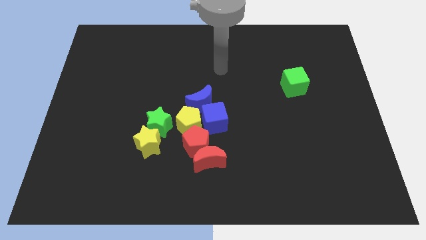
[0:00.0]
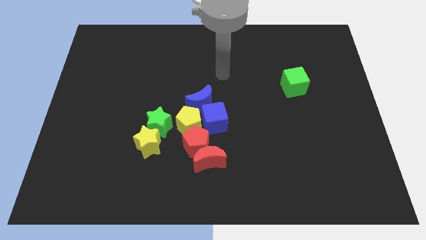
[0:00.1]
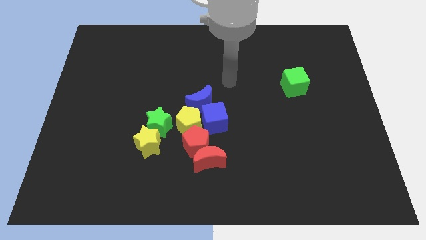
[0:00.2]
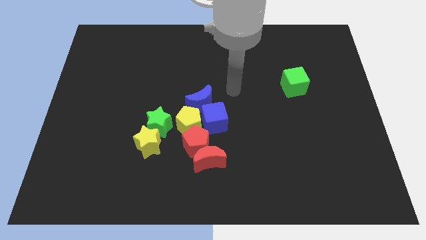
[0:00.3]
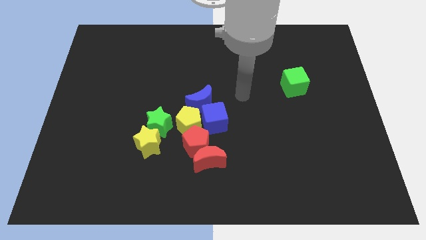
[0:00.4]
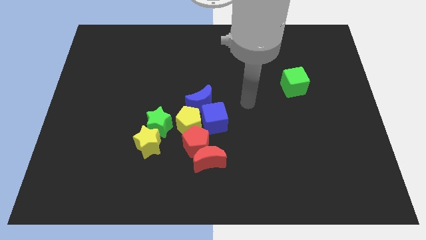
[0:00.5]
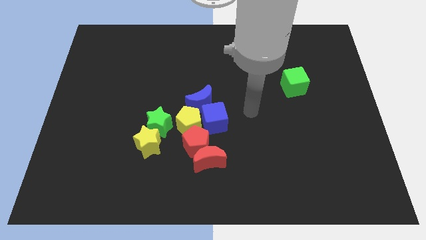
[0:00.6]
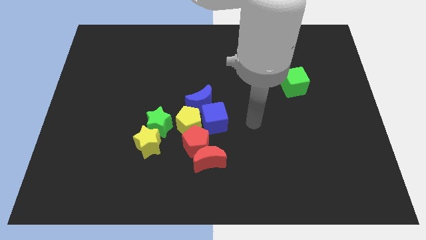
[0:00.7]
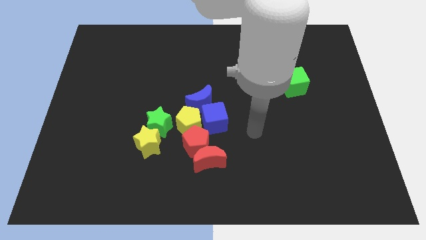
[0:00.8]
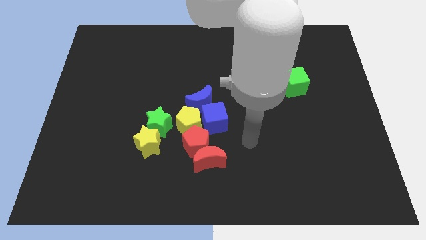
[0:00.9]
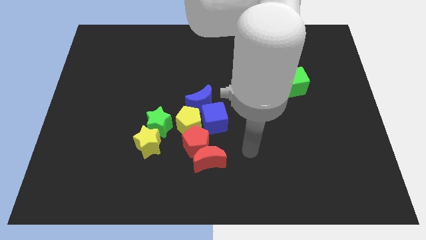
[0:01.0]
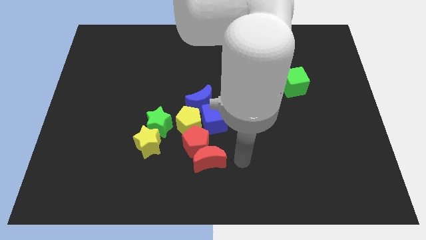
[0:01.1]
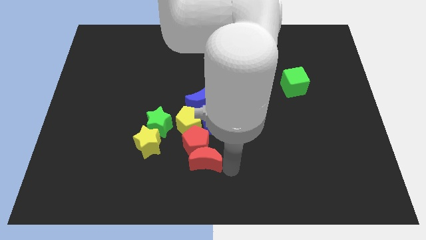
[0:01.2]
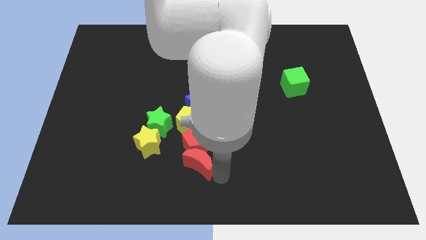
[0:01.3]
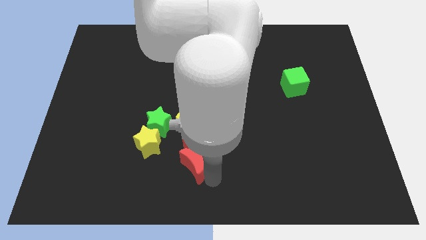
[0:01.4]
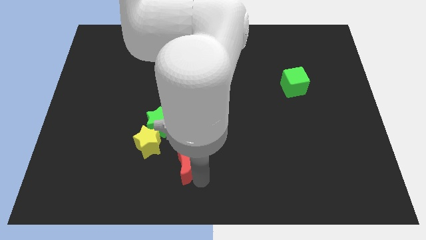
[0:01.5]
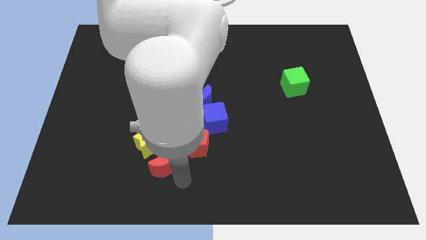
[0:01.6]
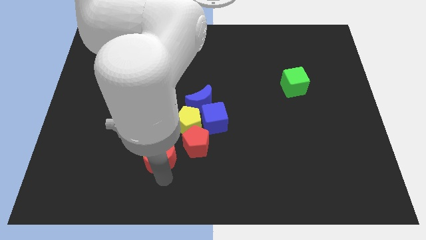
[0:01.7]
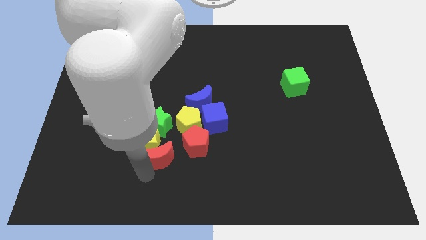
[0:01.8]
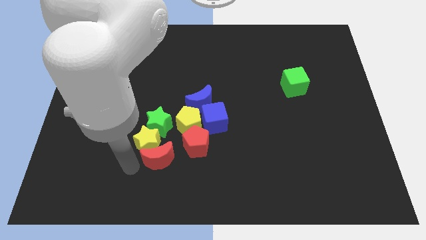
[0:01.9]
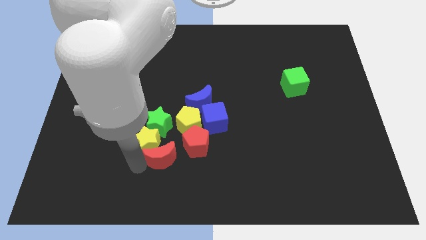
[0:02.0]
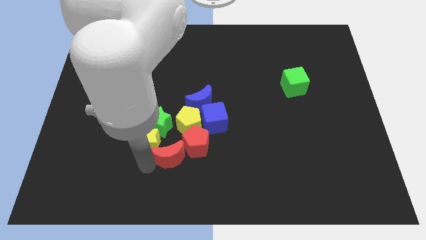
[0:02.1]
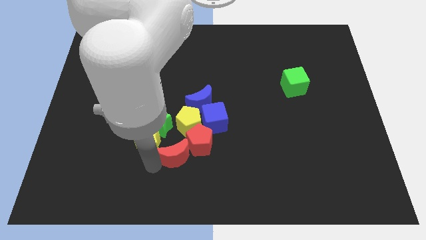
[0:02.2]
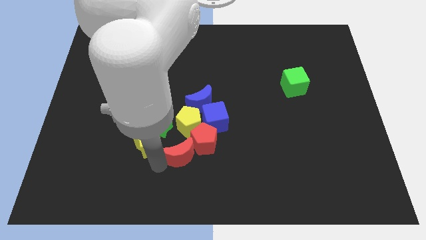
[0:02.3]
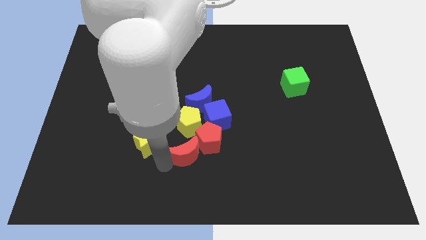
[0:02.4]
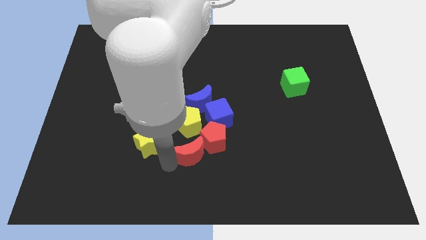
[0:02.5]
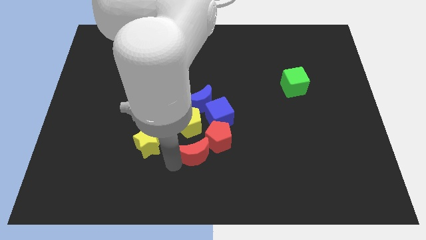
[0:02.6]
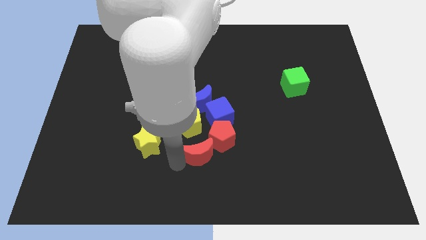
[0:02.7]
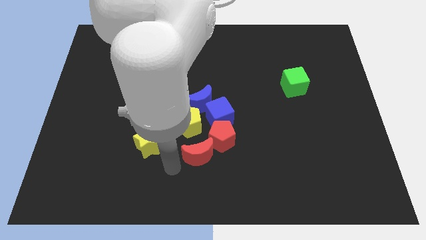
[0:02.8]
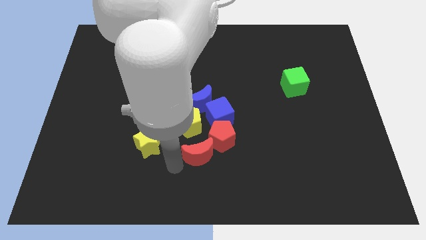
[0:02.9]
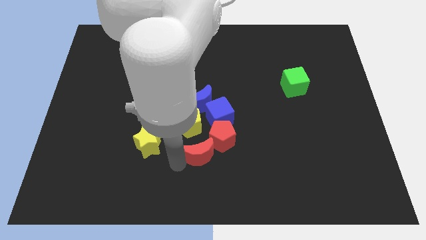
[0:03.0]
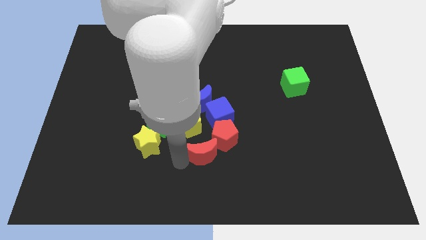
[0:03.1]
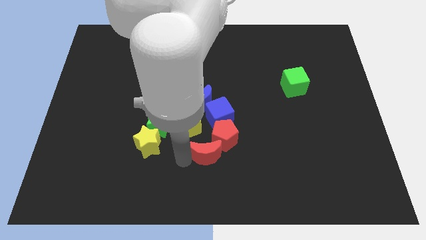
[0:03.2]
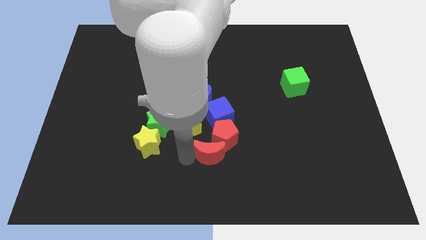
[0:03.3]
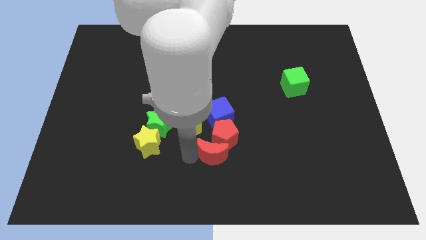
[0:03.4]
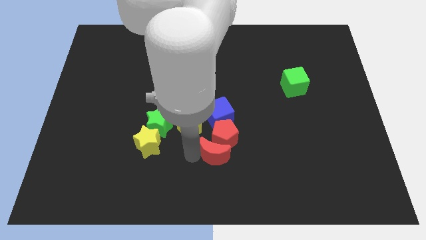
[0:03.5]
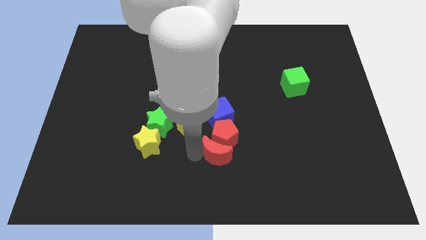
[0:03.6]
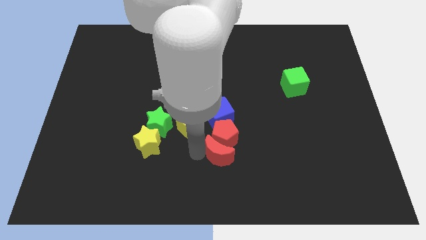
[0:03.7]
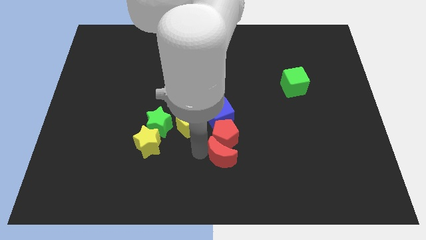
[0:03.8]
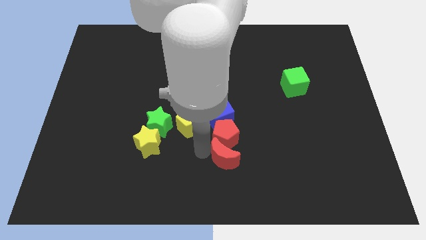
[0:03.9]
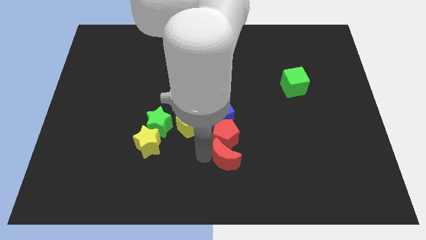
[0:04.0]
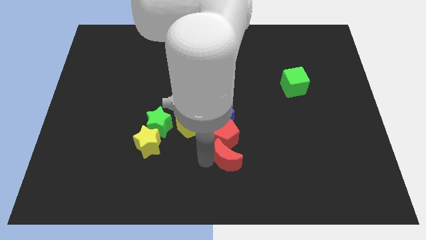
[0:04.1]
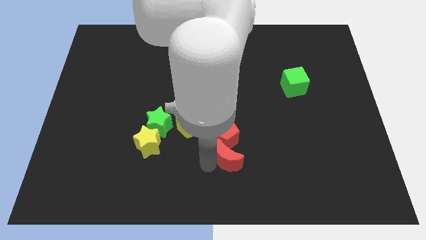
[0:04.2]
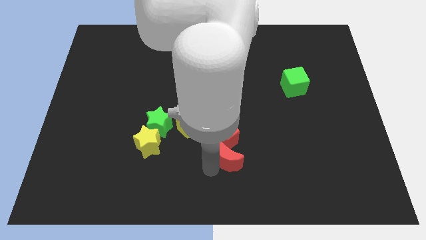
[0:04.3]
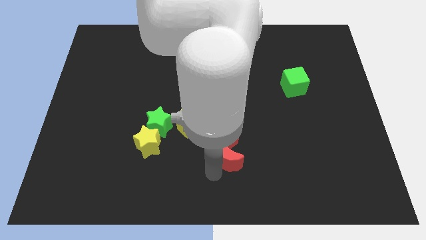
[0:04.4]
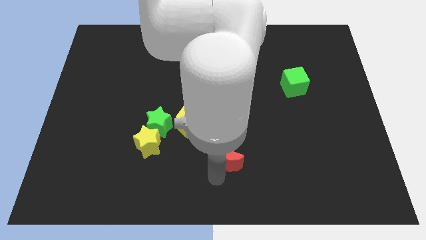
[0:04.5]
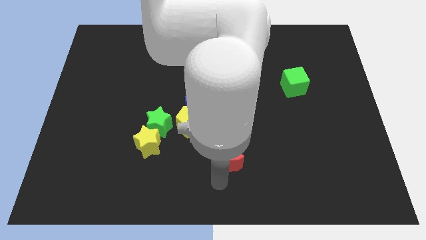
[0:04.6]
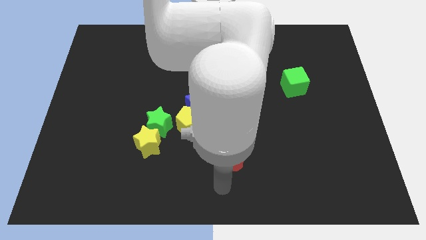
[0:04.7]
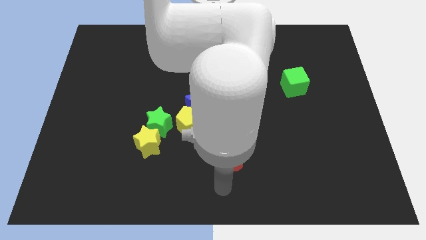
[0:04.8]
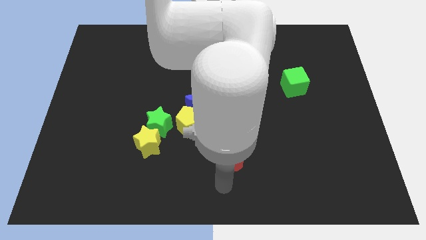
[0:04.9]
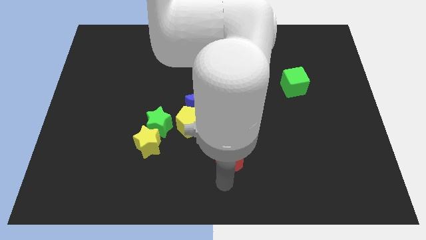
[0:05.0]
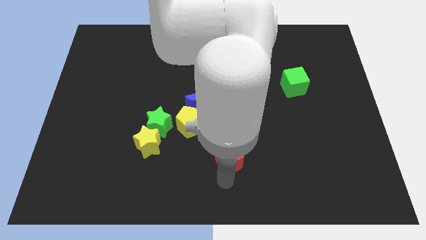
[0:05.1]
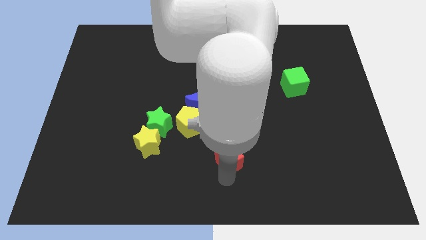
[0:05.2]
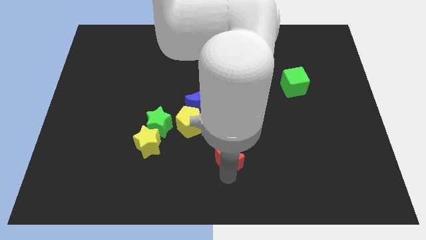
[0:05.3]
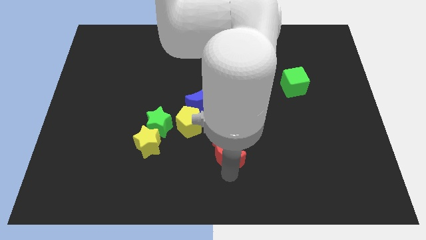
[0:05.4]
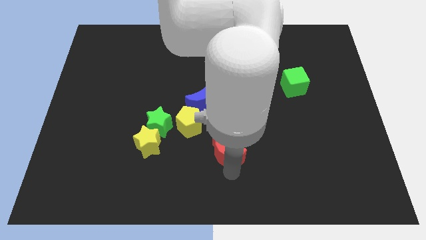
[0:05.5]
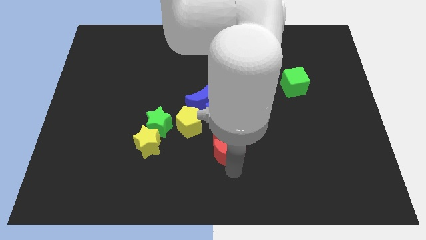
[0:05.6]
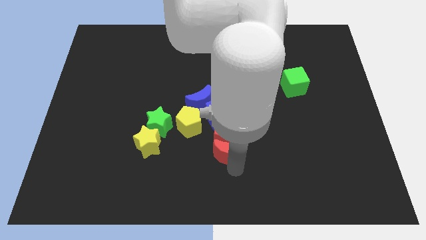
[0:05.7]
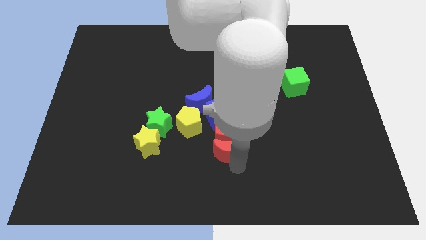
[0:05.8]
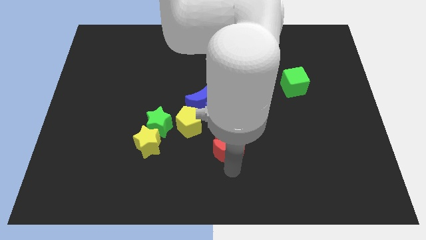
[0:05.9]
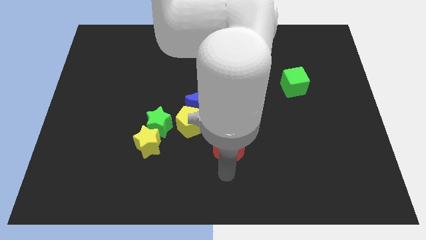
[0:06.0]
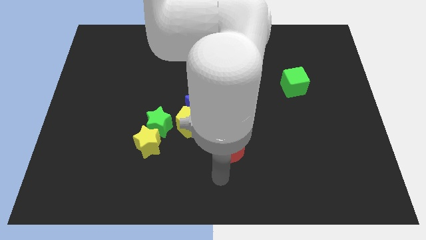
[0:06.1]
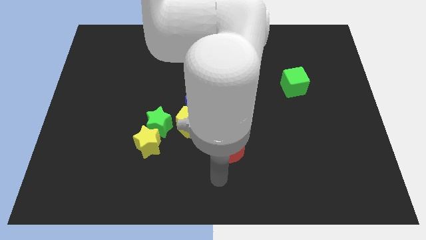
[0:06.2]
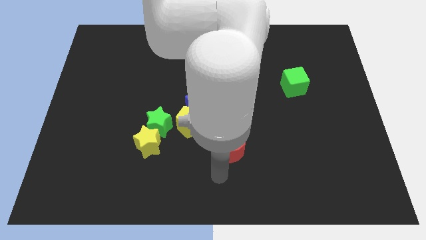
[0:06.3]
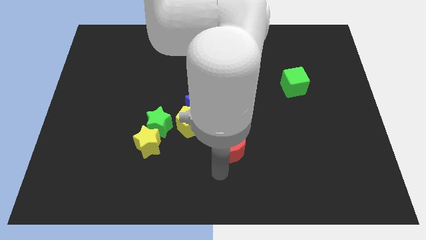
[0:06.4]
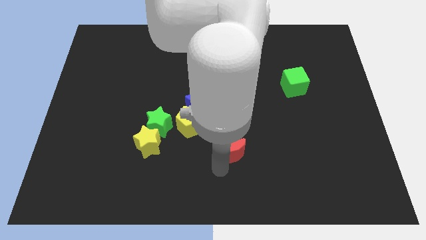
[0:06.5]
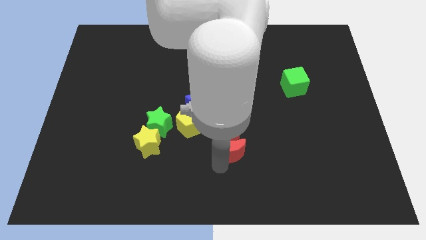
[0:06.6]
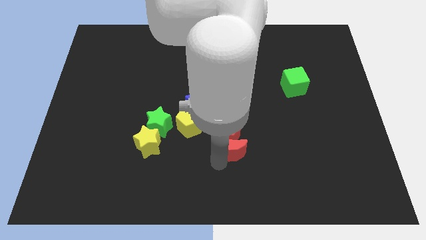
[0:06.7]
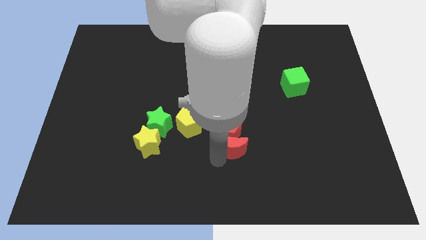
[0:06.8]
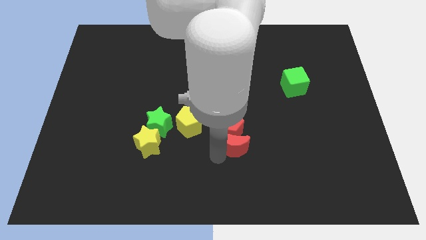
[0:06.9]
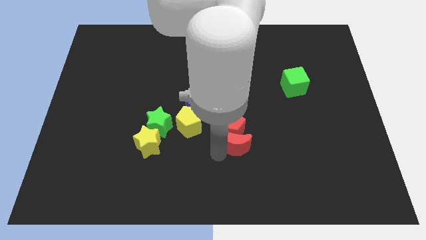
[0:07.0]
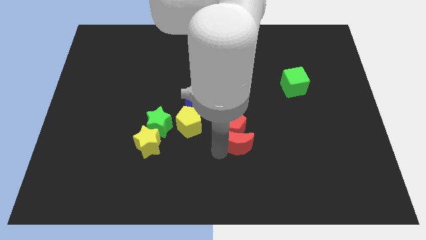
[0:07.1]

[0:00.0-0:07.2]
push the red moon upwards and then right a little

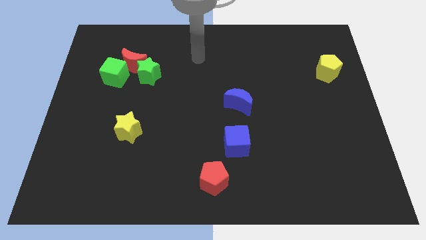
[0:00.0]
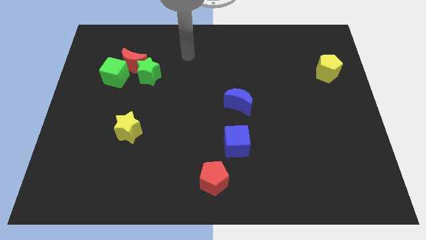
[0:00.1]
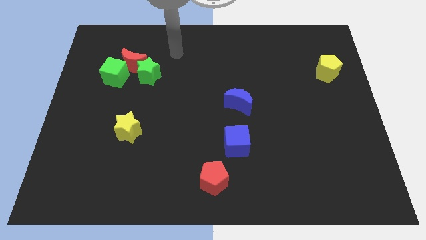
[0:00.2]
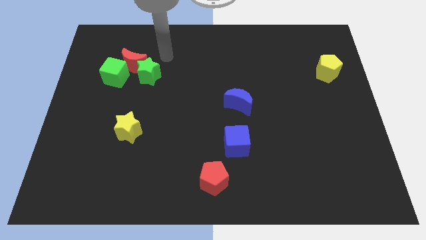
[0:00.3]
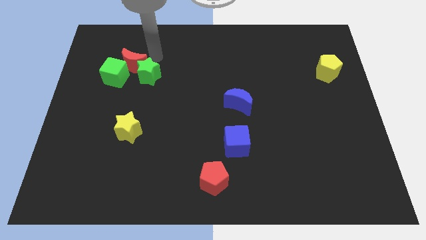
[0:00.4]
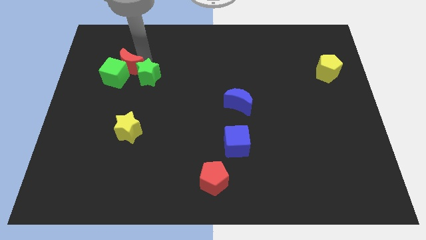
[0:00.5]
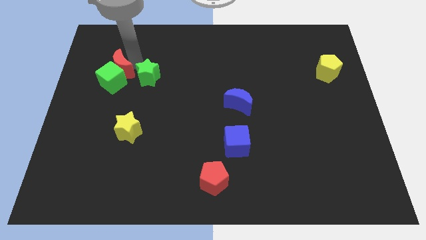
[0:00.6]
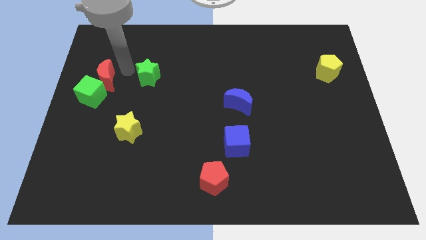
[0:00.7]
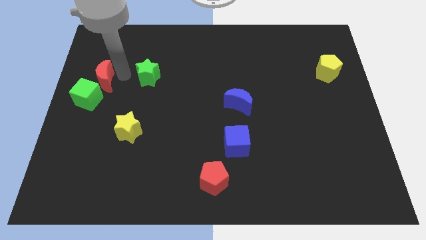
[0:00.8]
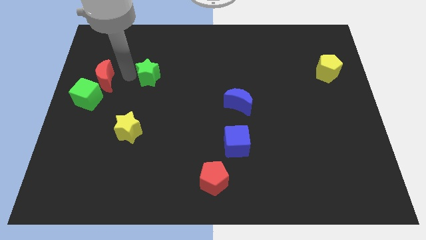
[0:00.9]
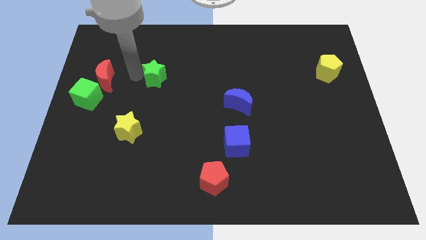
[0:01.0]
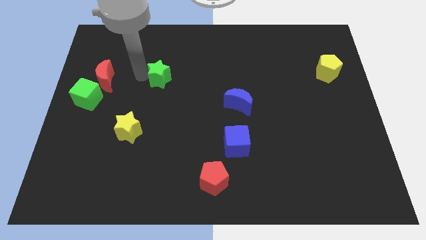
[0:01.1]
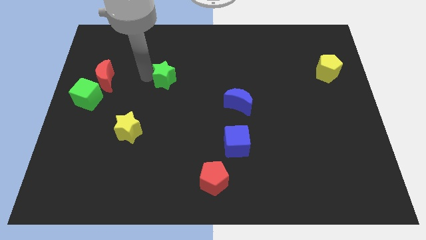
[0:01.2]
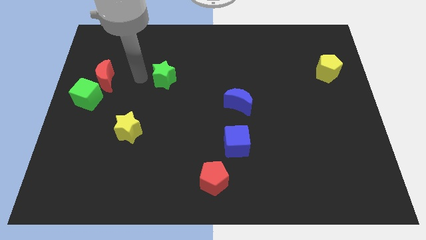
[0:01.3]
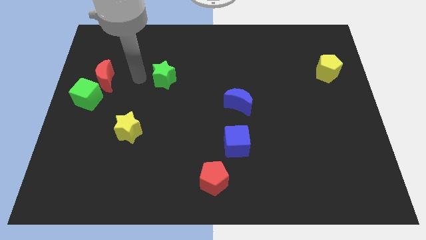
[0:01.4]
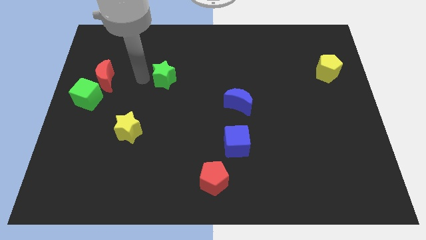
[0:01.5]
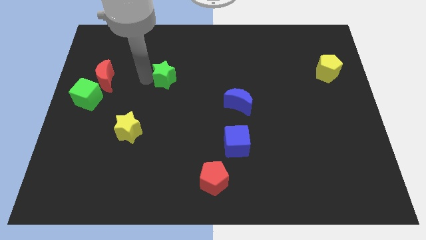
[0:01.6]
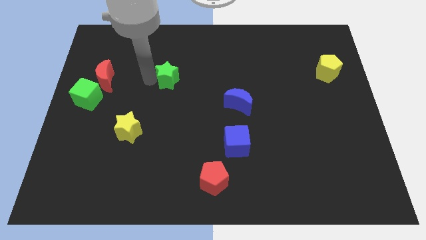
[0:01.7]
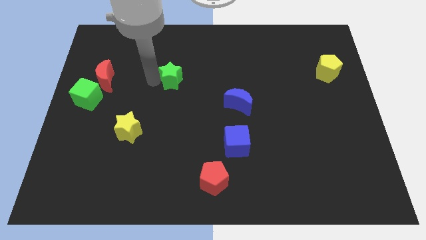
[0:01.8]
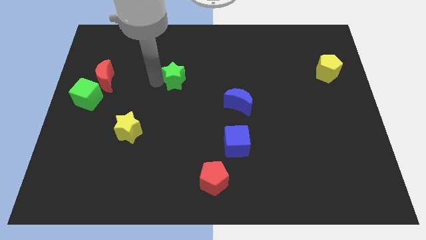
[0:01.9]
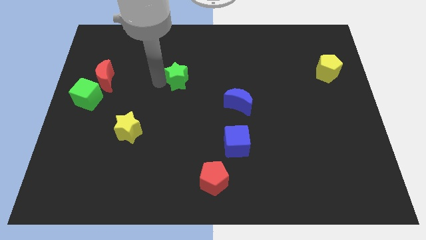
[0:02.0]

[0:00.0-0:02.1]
slide the green star a little to the right
